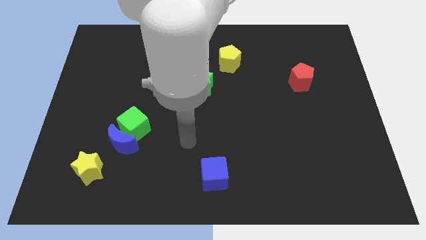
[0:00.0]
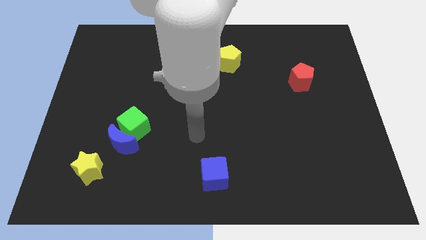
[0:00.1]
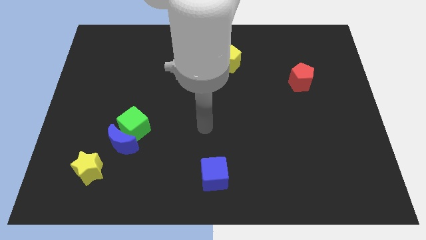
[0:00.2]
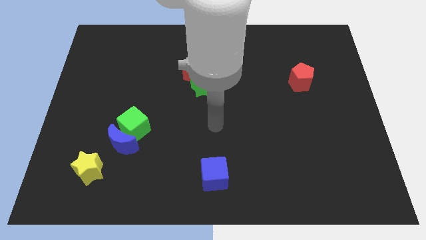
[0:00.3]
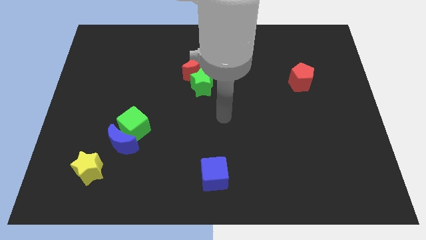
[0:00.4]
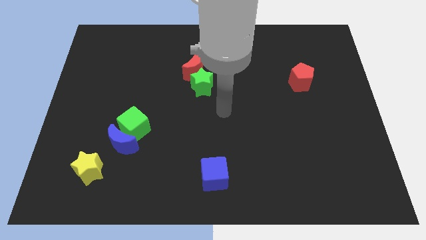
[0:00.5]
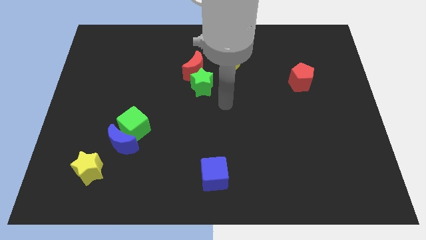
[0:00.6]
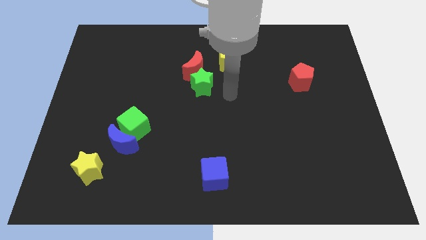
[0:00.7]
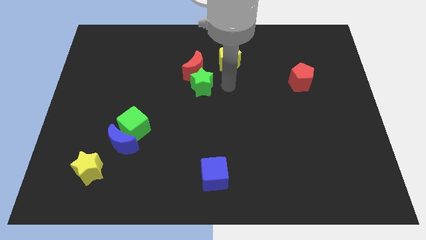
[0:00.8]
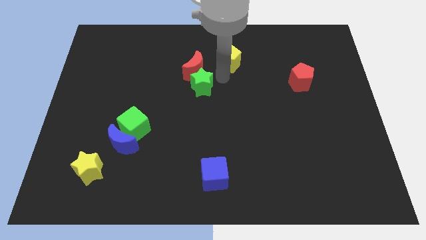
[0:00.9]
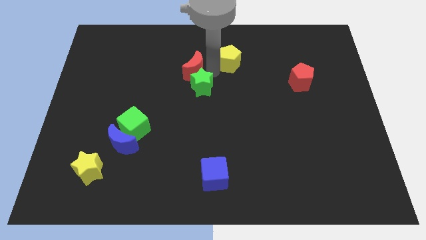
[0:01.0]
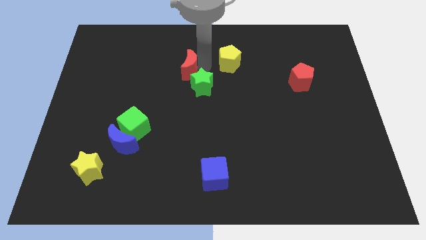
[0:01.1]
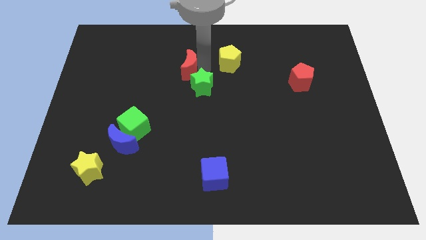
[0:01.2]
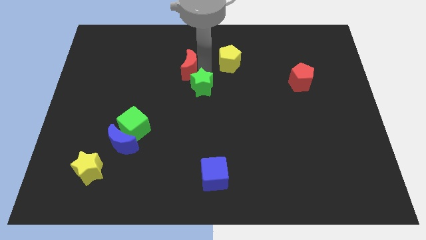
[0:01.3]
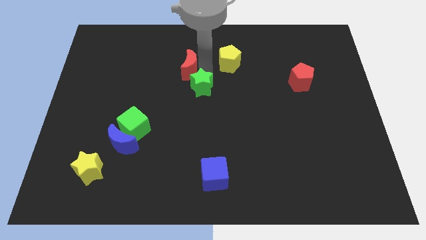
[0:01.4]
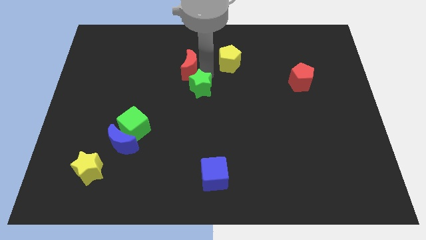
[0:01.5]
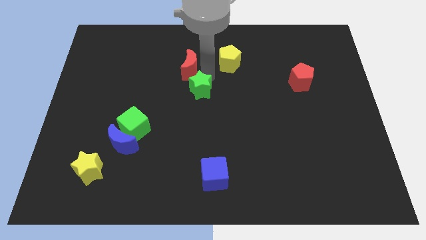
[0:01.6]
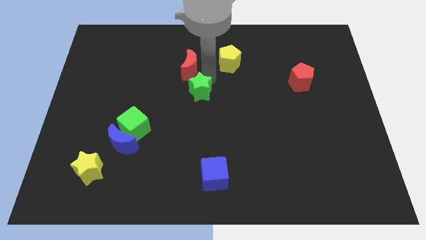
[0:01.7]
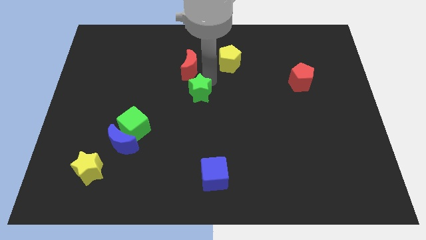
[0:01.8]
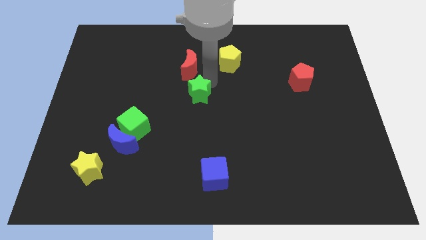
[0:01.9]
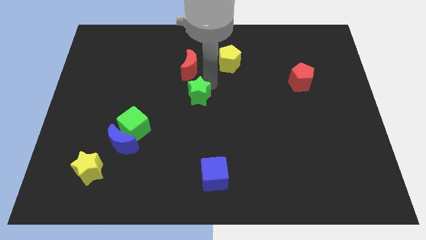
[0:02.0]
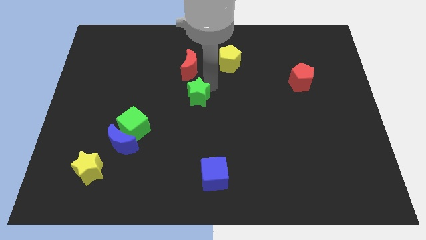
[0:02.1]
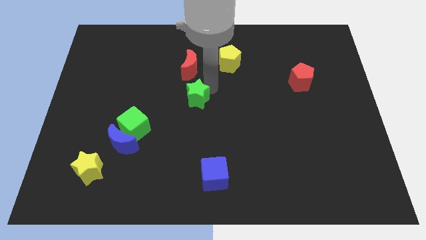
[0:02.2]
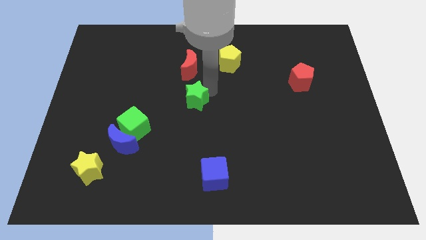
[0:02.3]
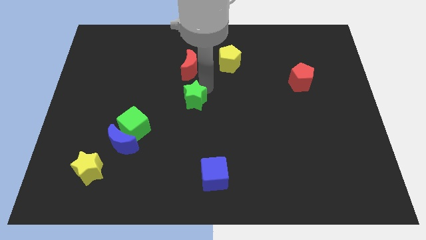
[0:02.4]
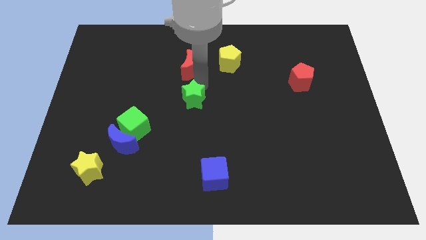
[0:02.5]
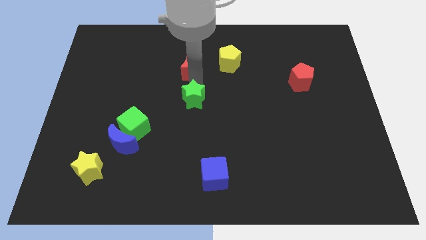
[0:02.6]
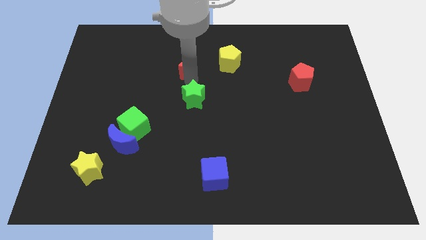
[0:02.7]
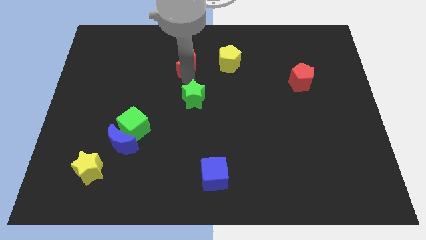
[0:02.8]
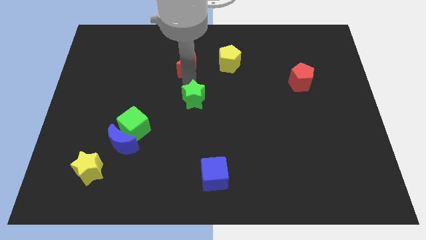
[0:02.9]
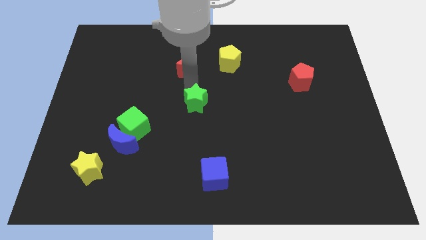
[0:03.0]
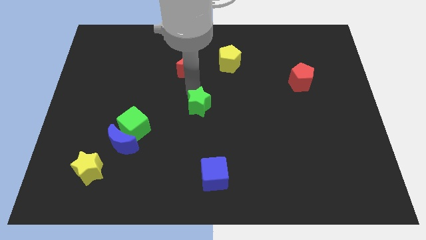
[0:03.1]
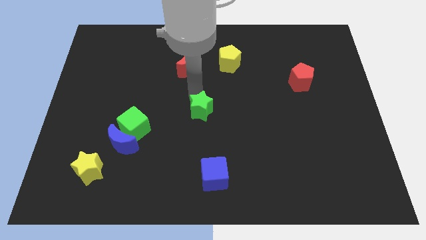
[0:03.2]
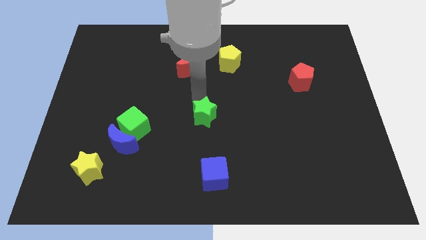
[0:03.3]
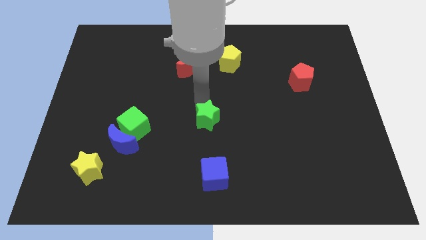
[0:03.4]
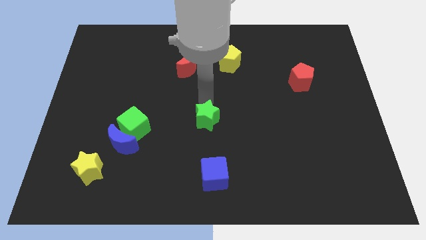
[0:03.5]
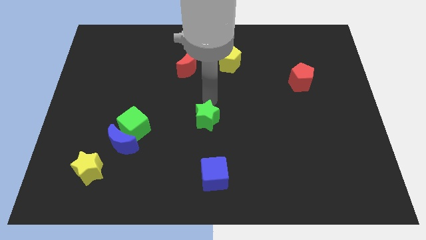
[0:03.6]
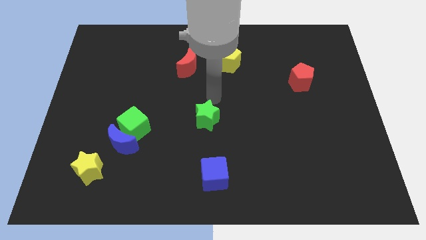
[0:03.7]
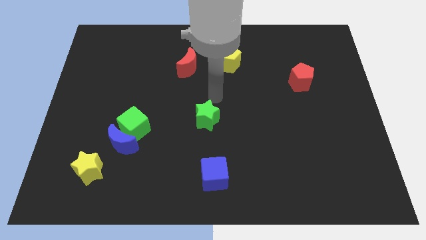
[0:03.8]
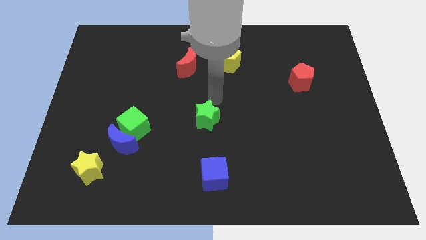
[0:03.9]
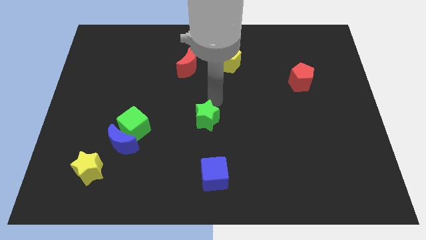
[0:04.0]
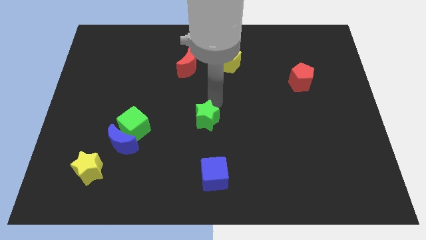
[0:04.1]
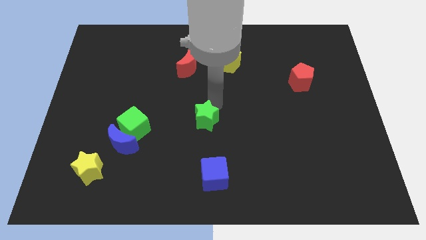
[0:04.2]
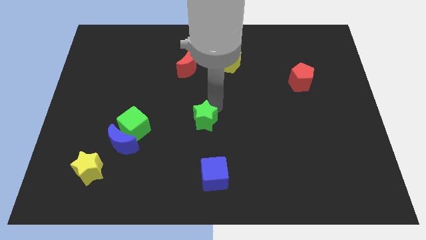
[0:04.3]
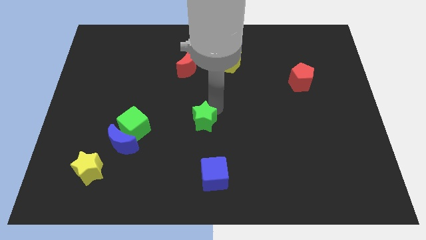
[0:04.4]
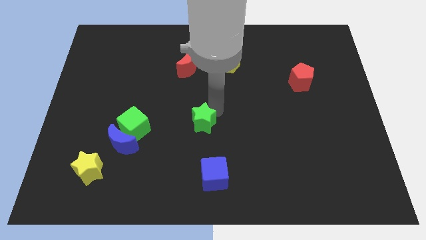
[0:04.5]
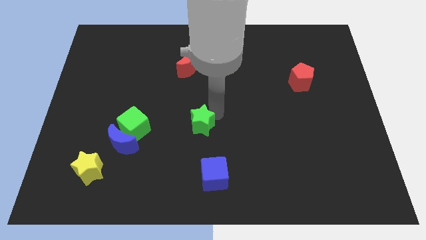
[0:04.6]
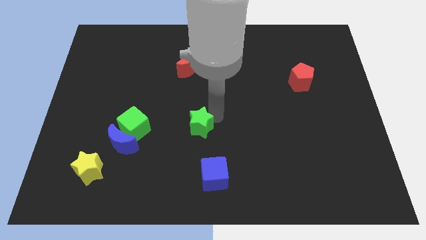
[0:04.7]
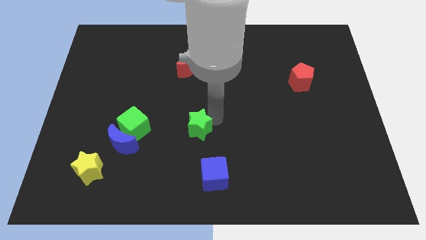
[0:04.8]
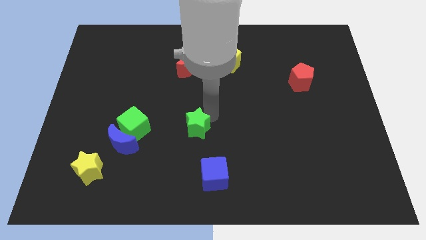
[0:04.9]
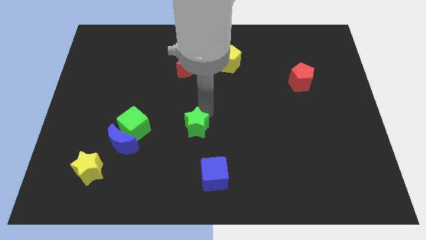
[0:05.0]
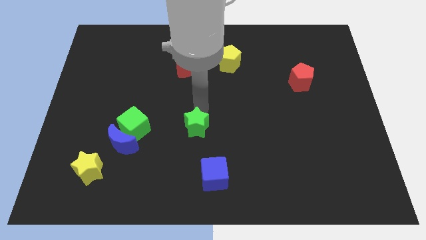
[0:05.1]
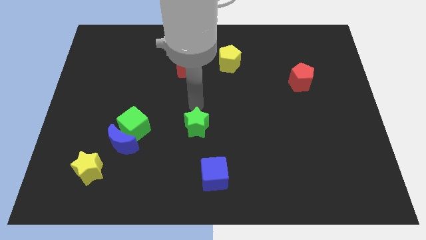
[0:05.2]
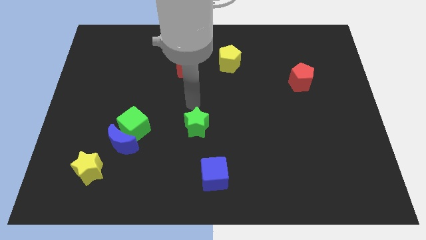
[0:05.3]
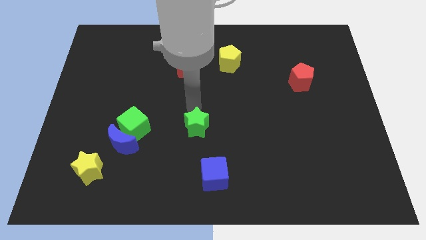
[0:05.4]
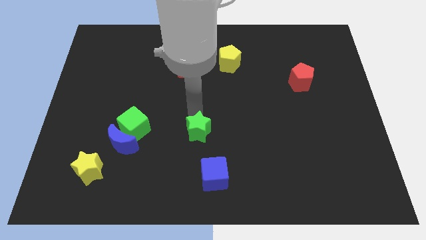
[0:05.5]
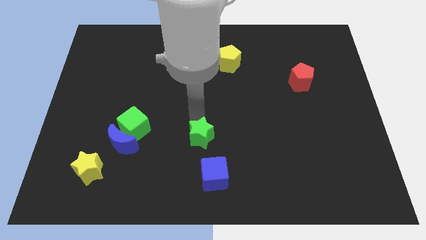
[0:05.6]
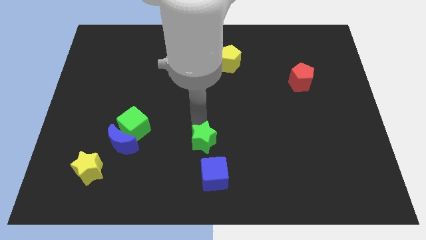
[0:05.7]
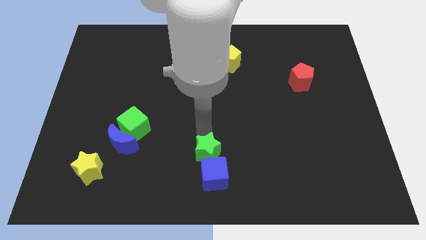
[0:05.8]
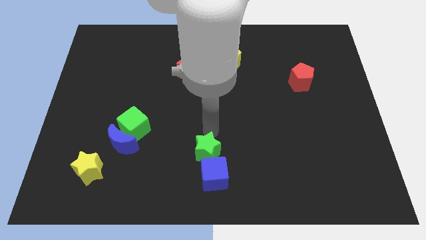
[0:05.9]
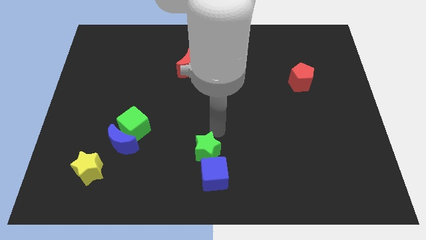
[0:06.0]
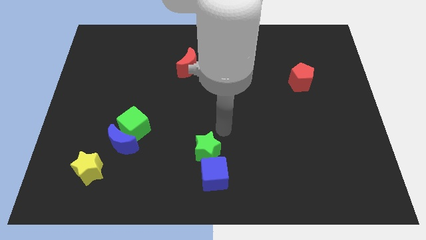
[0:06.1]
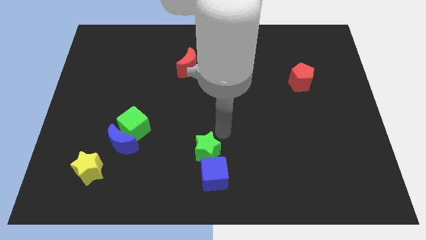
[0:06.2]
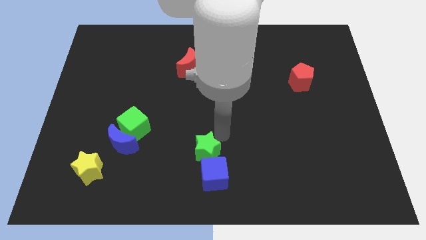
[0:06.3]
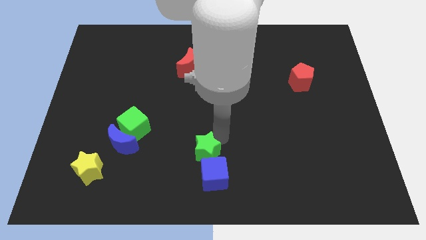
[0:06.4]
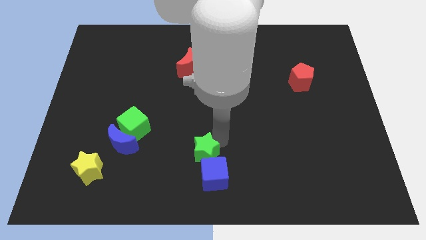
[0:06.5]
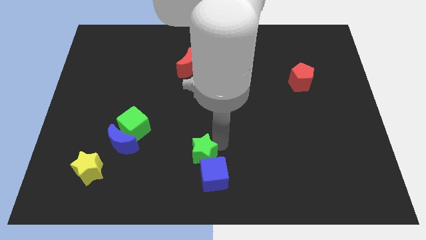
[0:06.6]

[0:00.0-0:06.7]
put the green star to the bottom
